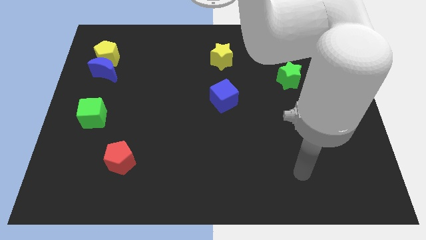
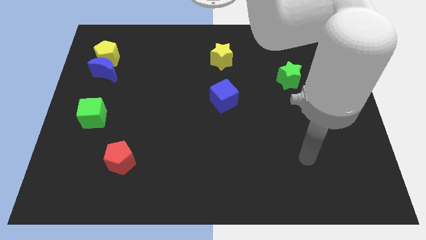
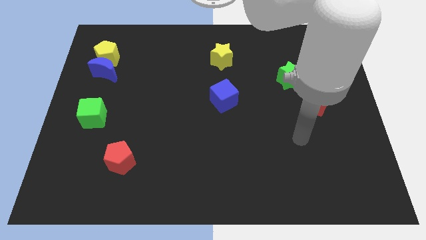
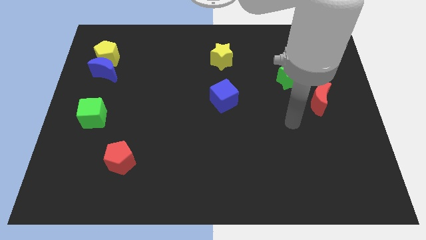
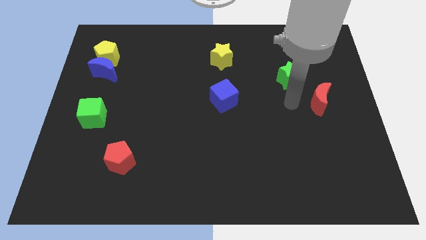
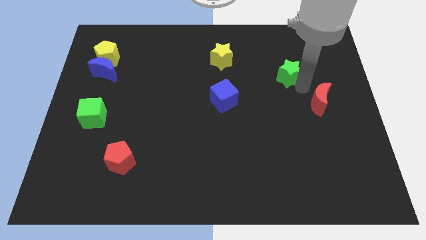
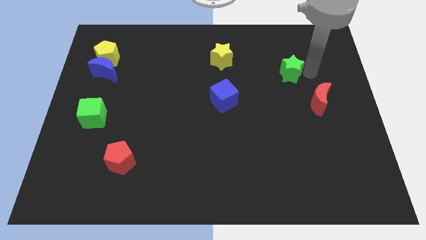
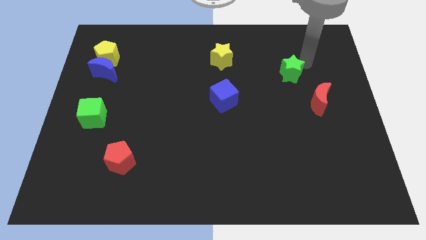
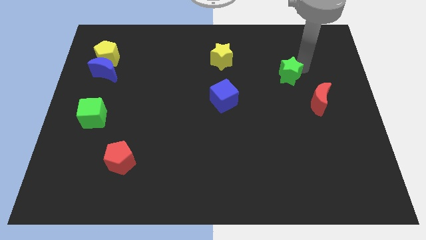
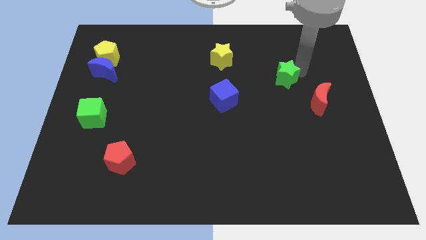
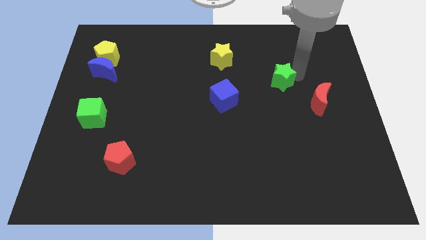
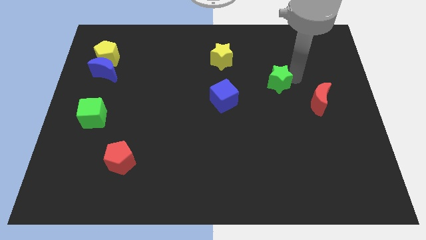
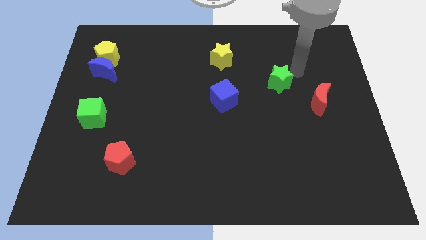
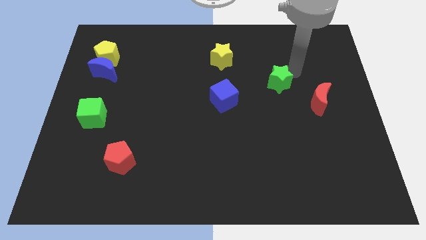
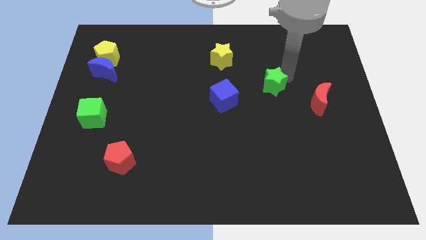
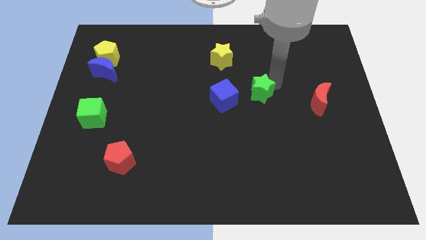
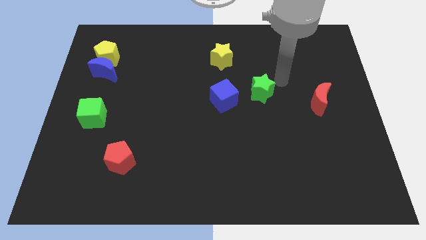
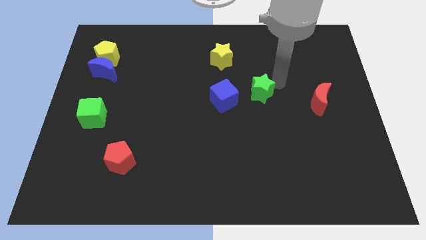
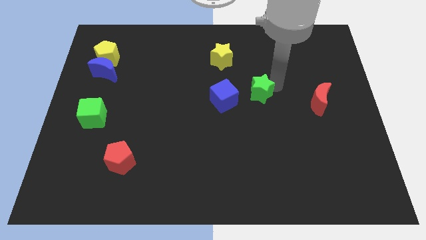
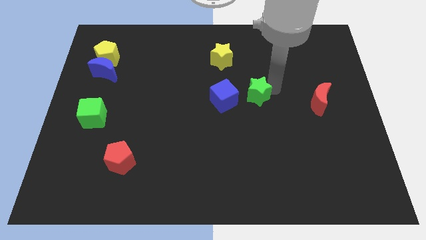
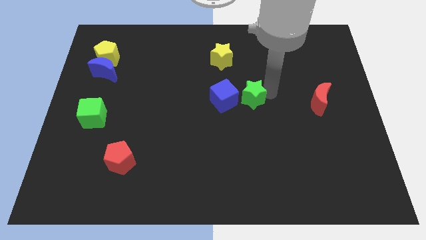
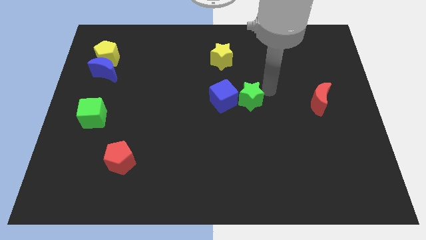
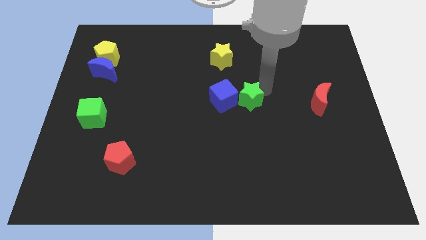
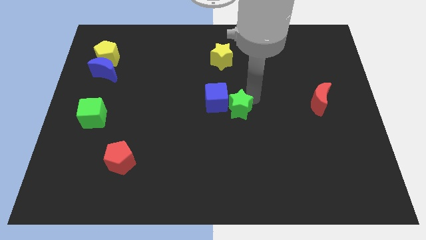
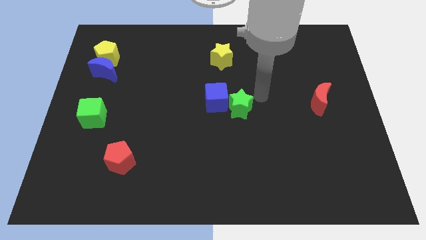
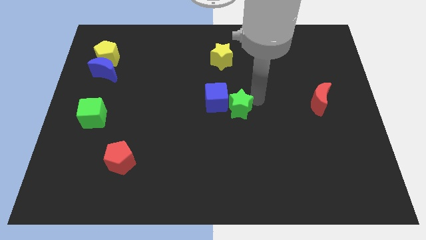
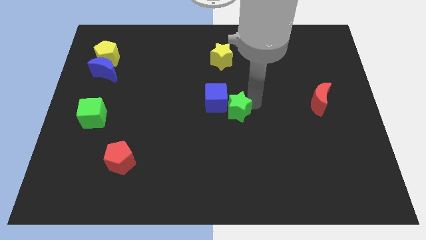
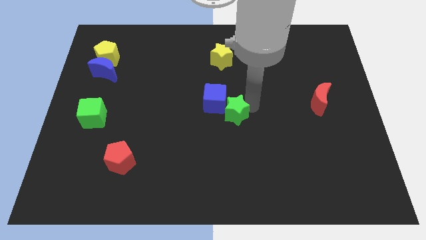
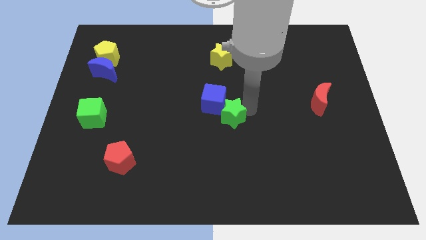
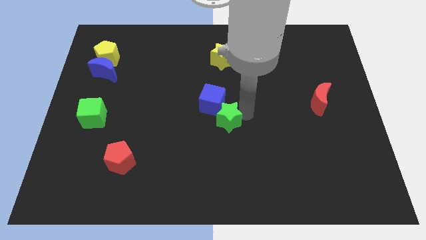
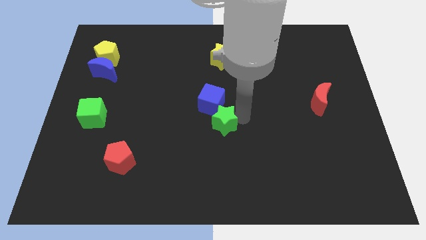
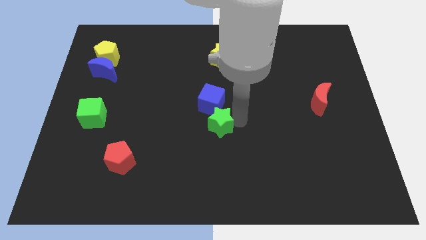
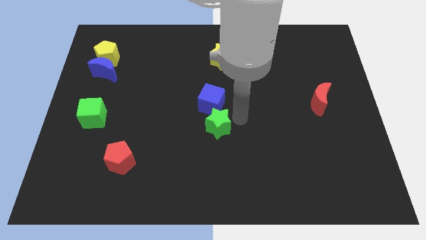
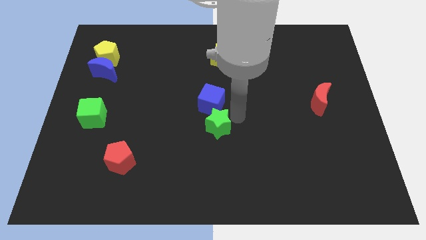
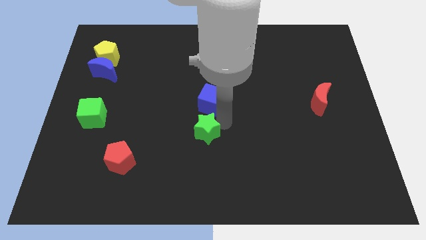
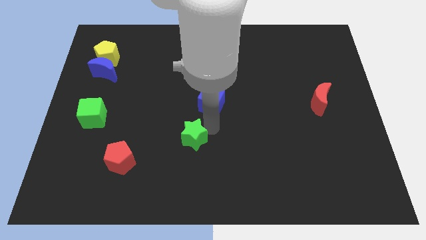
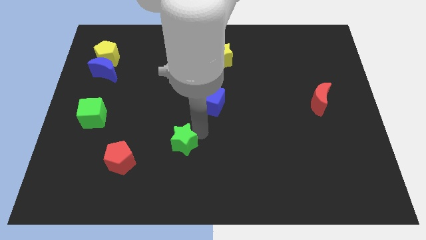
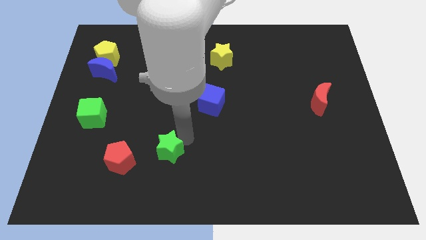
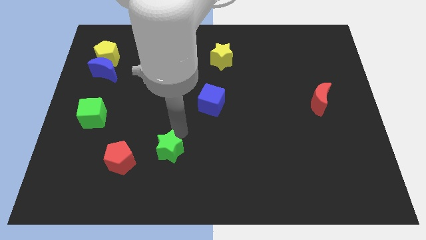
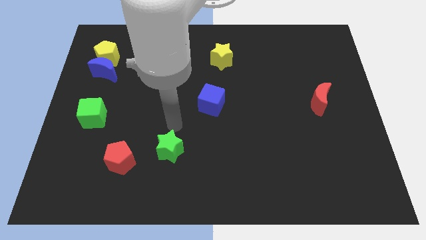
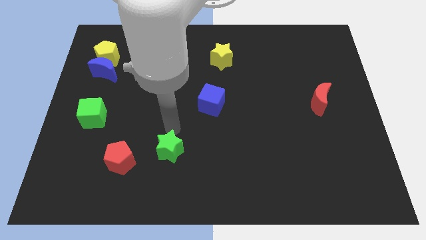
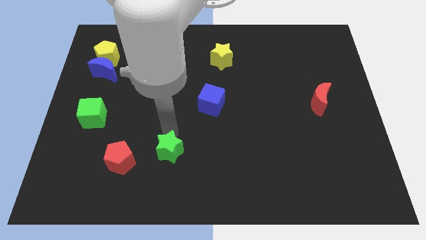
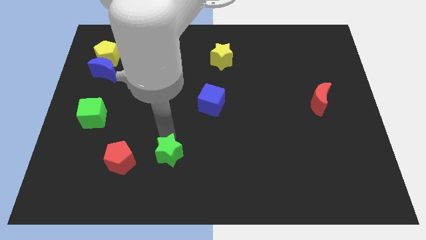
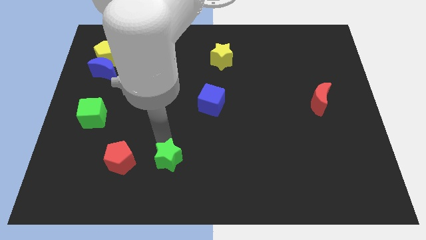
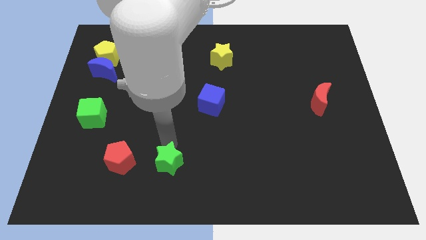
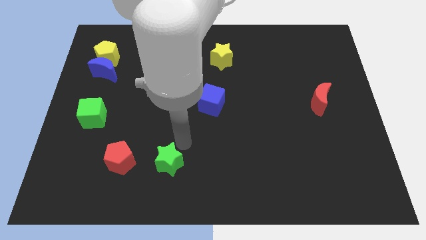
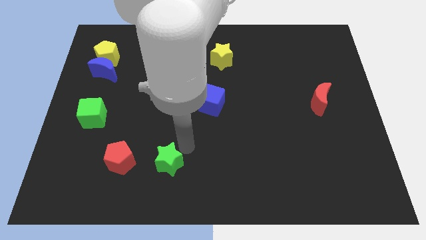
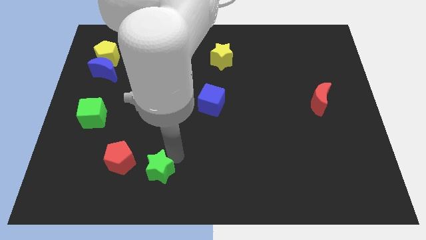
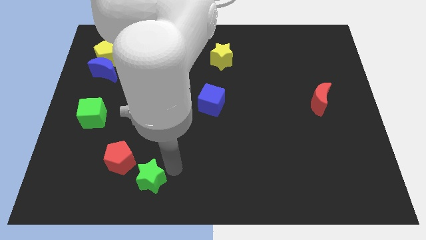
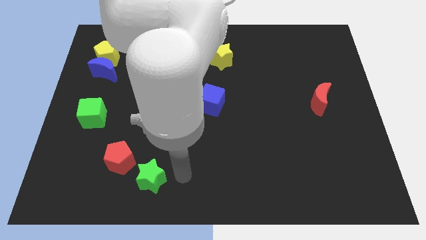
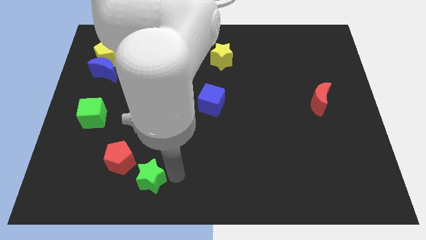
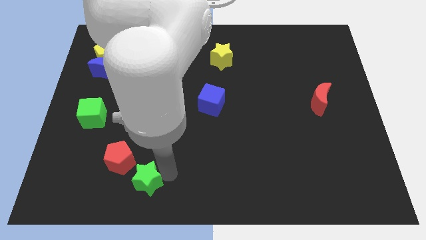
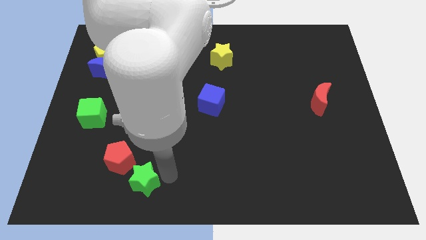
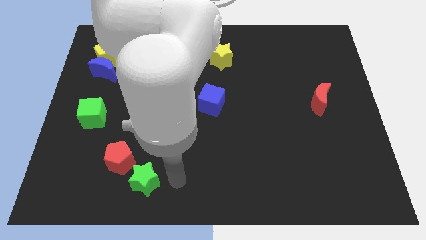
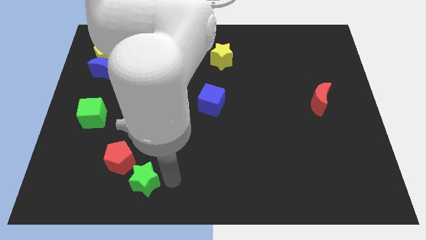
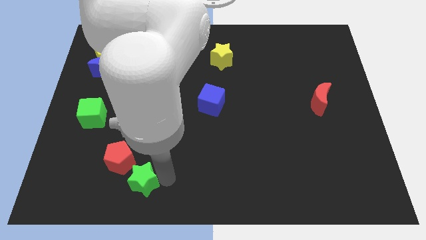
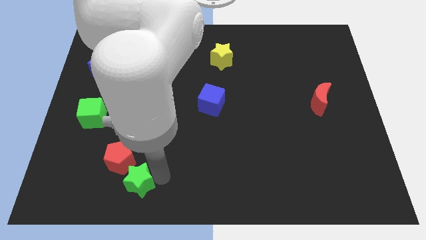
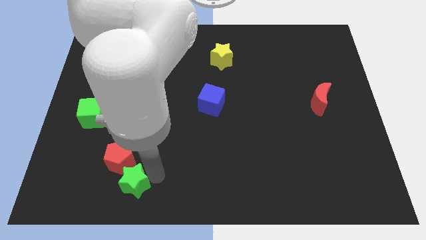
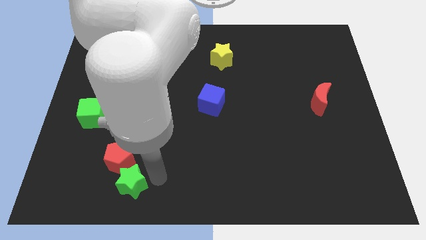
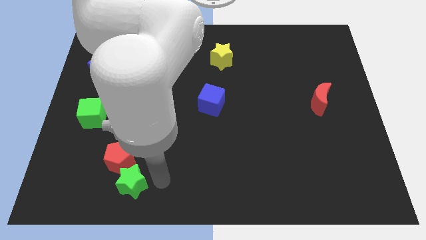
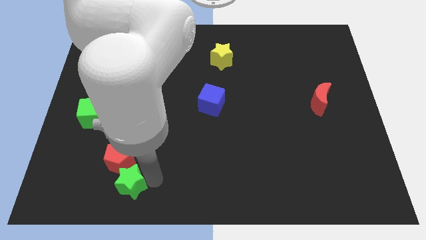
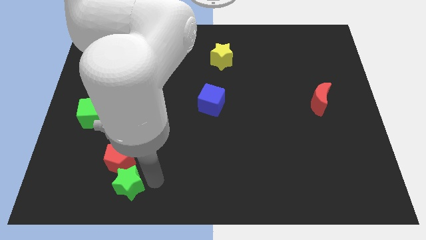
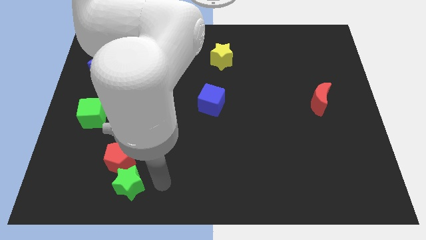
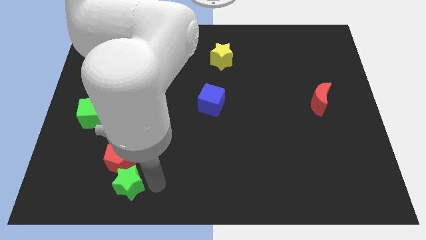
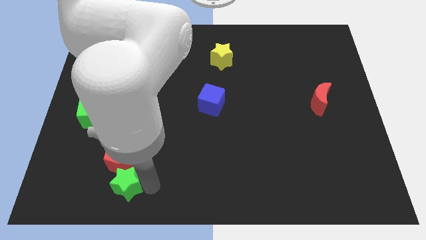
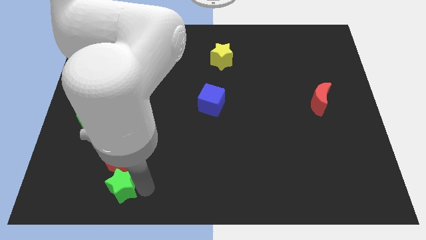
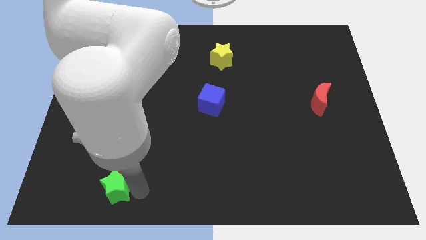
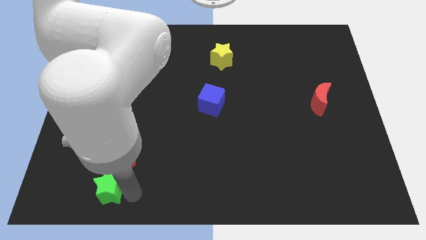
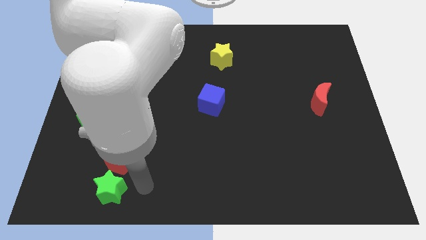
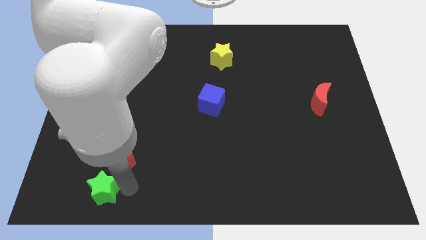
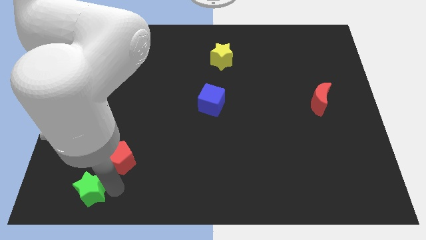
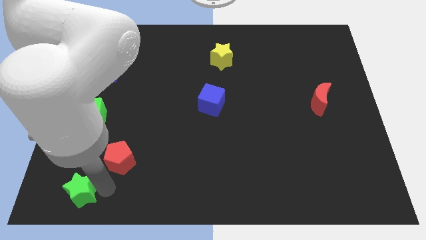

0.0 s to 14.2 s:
push the green star to the lower left corner

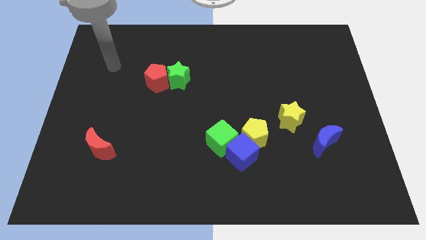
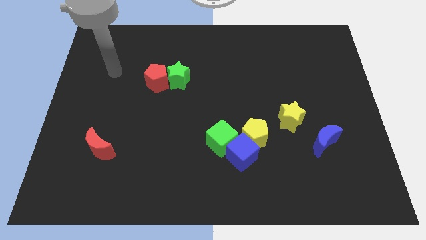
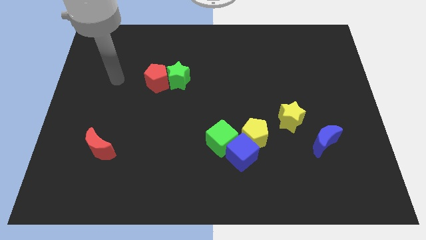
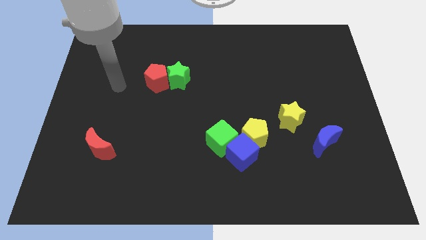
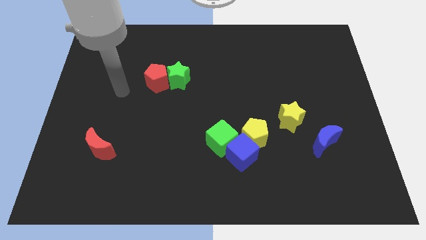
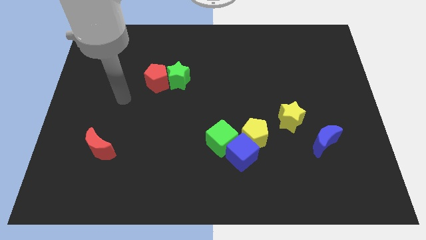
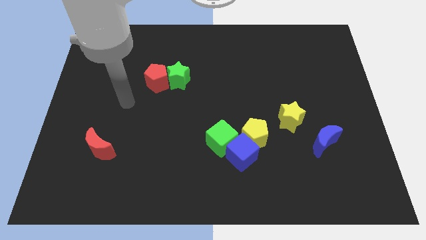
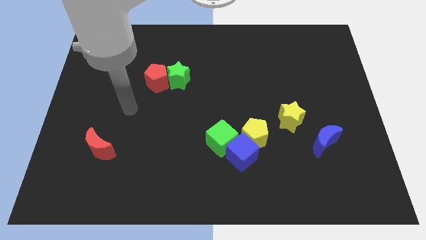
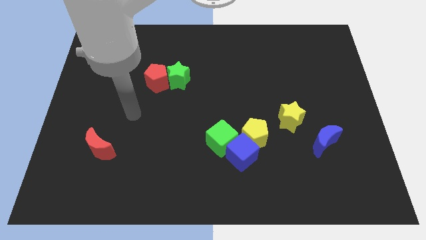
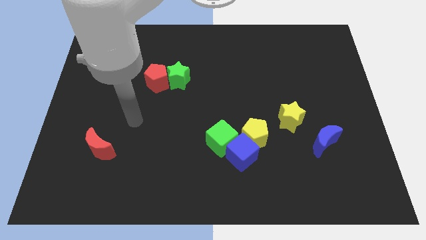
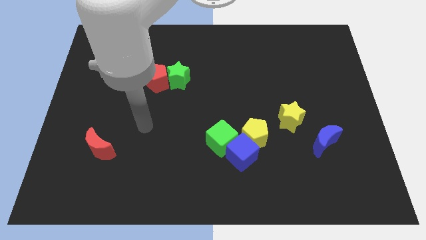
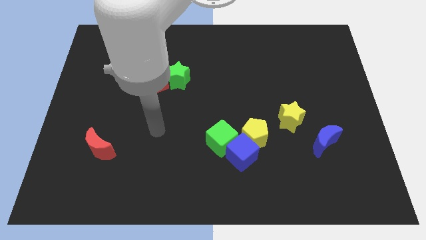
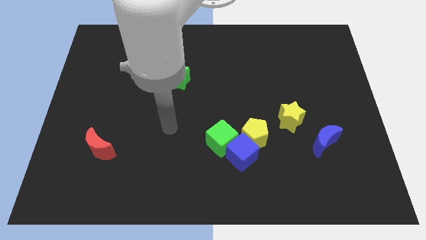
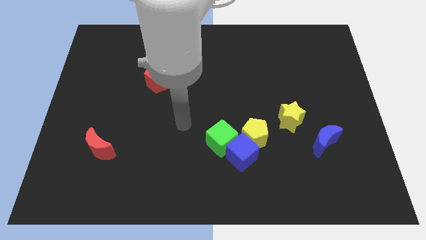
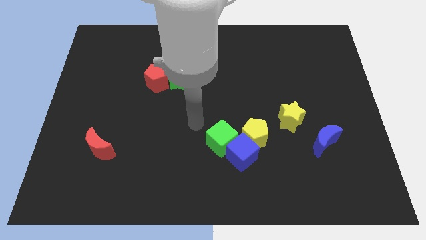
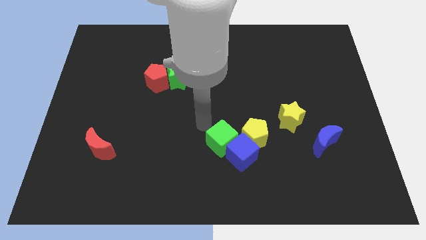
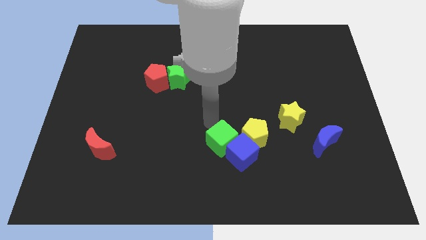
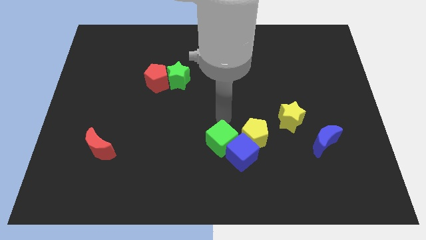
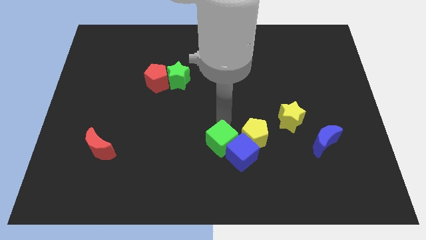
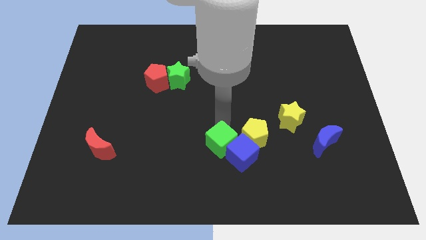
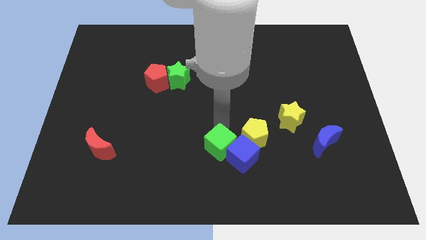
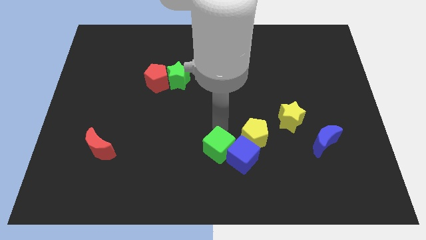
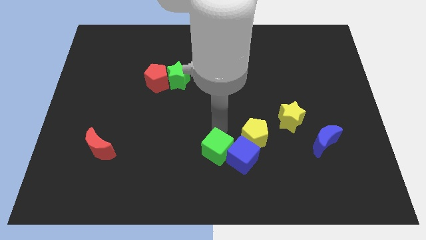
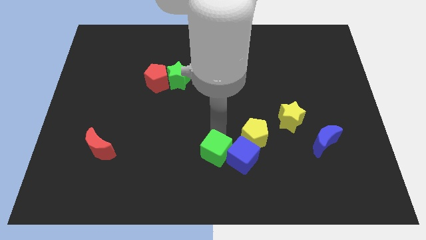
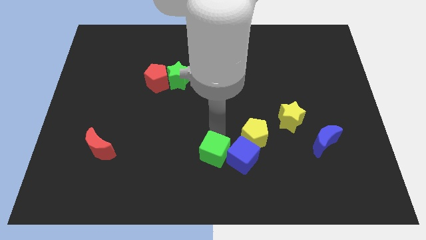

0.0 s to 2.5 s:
push the green cube to the bottom side
